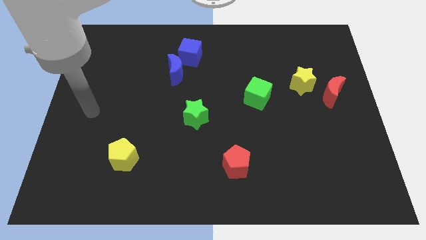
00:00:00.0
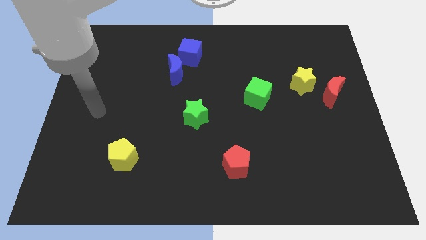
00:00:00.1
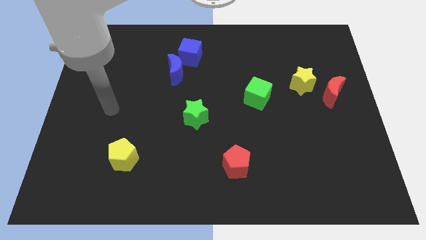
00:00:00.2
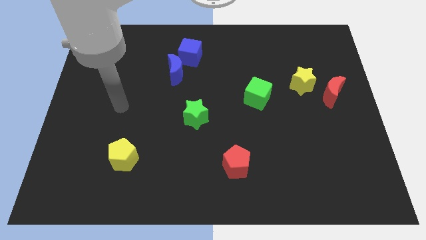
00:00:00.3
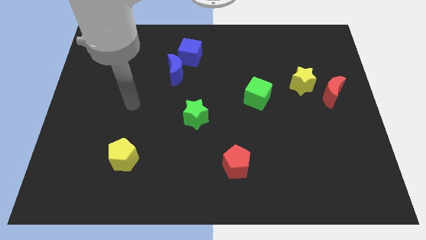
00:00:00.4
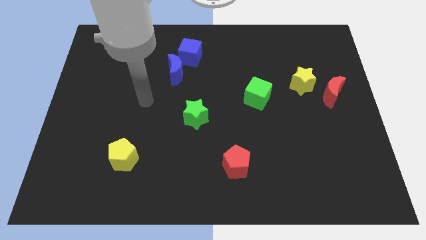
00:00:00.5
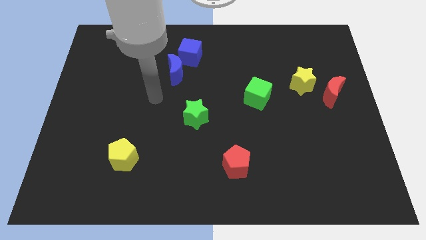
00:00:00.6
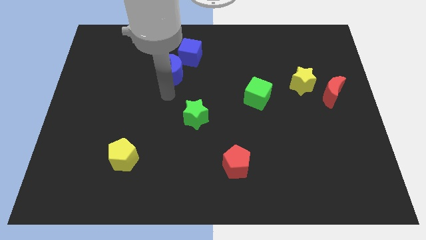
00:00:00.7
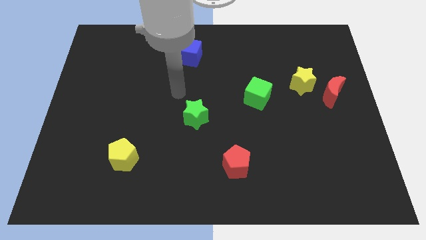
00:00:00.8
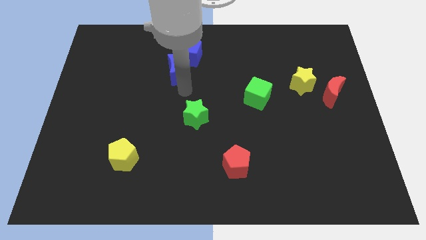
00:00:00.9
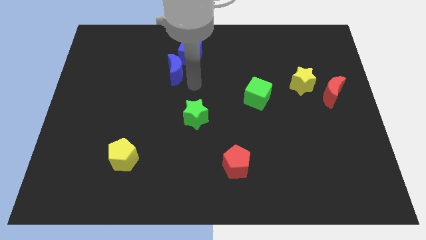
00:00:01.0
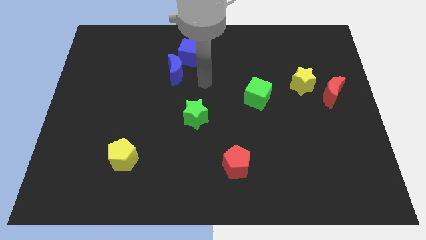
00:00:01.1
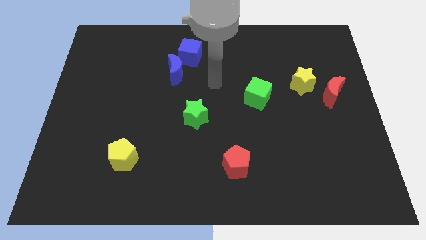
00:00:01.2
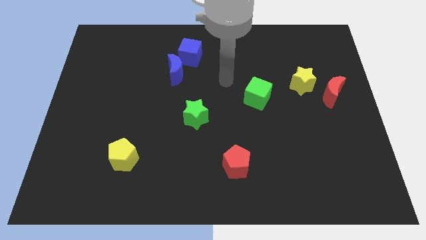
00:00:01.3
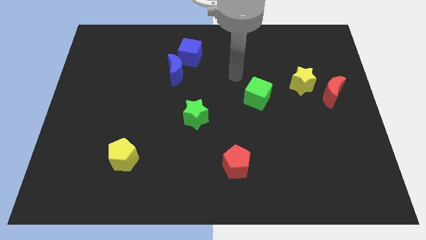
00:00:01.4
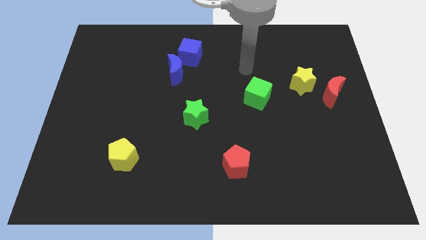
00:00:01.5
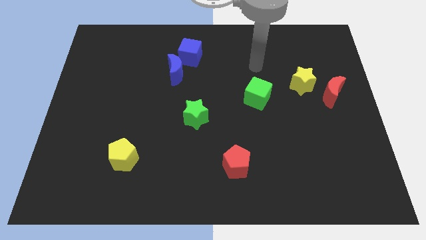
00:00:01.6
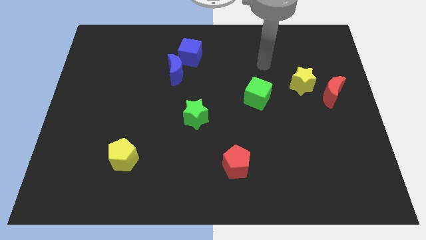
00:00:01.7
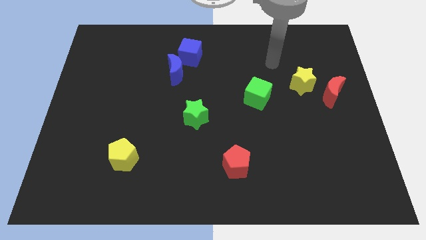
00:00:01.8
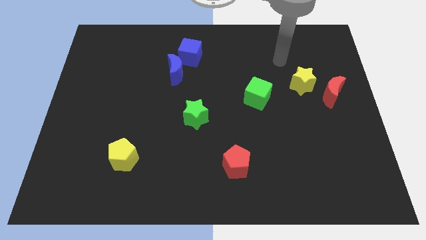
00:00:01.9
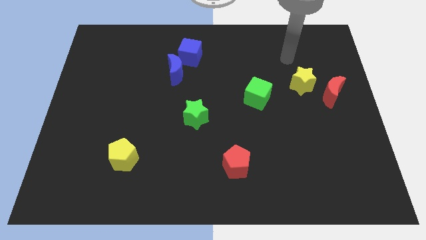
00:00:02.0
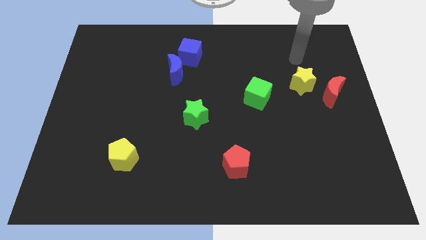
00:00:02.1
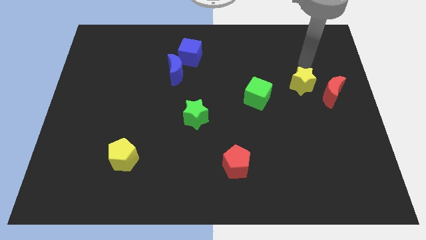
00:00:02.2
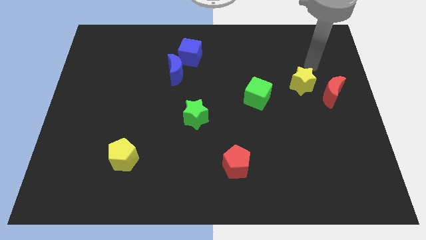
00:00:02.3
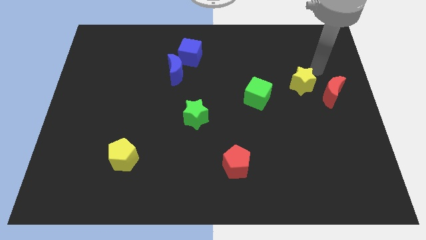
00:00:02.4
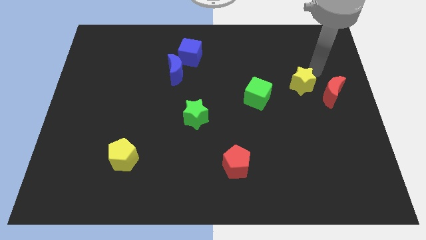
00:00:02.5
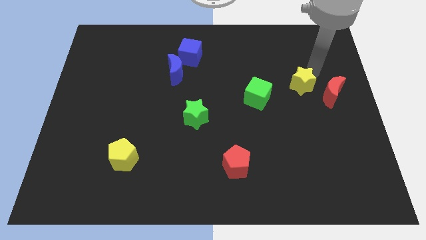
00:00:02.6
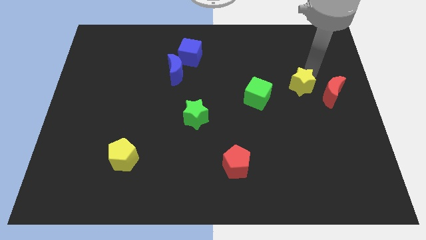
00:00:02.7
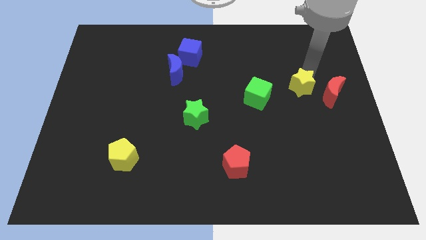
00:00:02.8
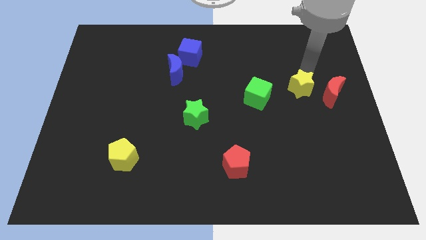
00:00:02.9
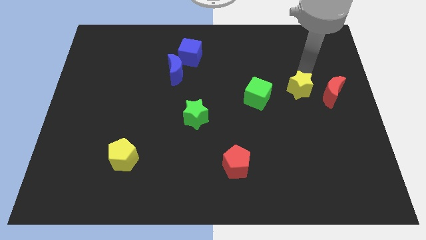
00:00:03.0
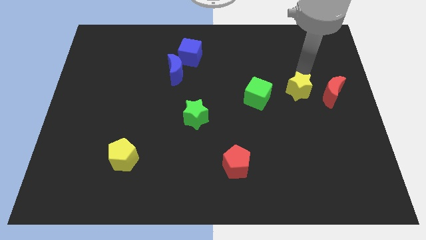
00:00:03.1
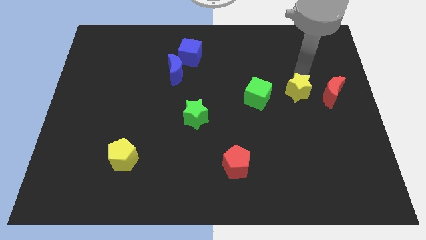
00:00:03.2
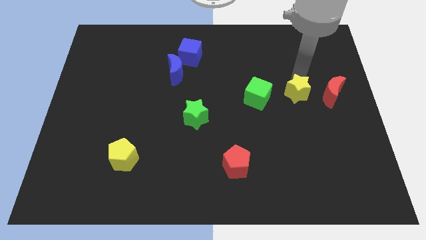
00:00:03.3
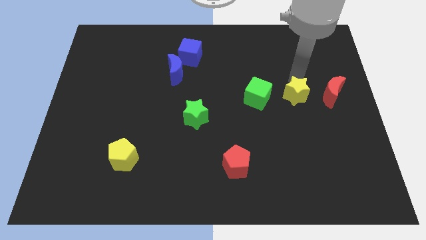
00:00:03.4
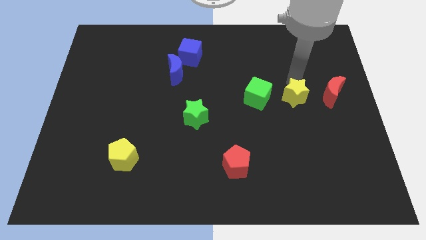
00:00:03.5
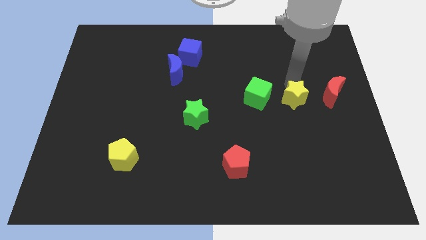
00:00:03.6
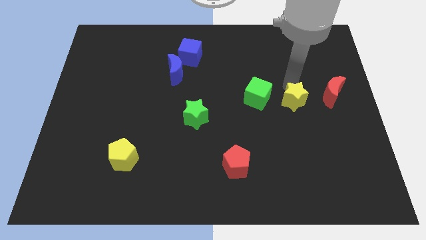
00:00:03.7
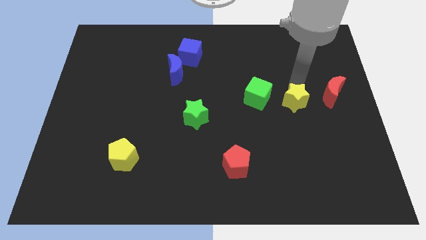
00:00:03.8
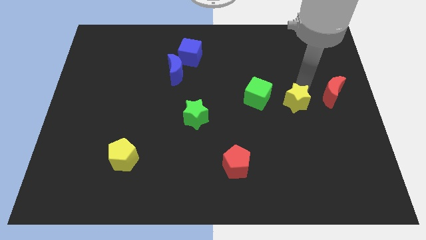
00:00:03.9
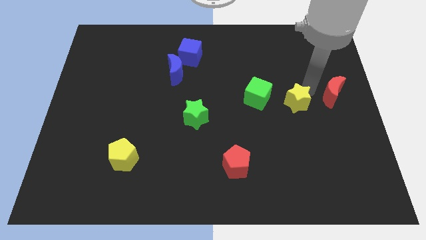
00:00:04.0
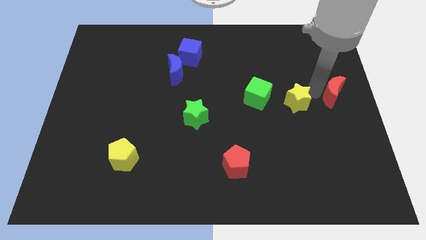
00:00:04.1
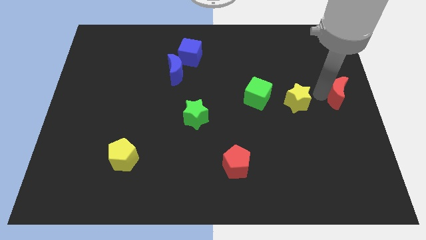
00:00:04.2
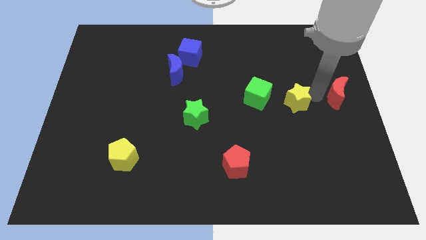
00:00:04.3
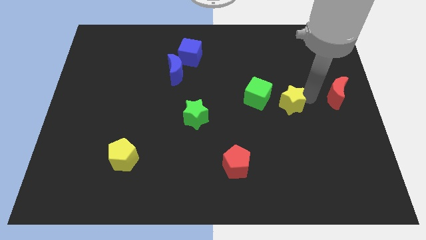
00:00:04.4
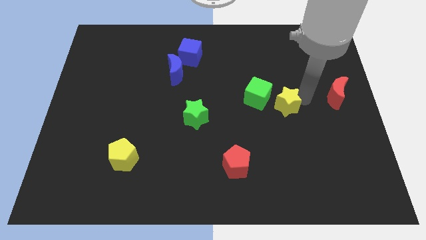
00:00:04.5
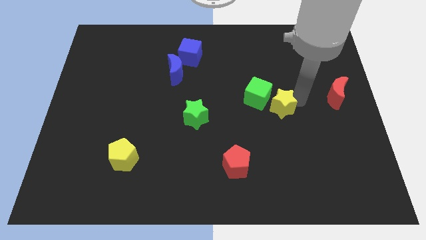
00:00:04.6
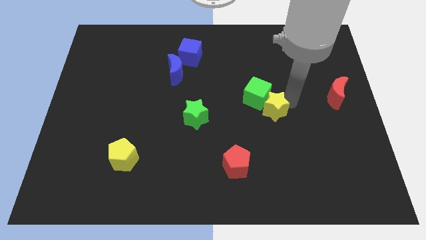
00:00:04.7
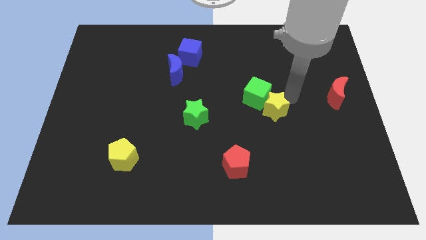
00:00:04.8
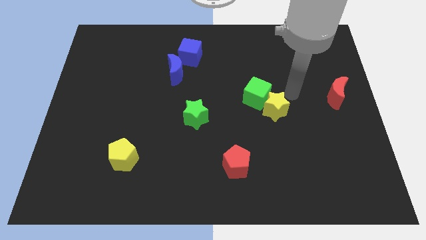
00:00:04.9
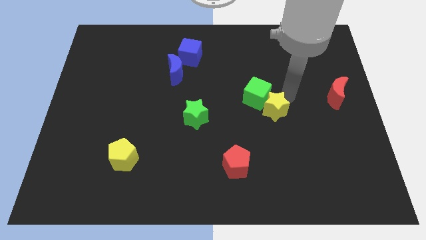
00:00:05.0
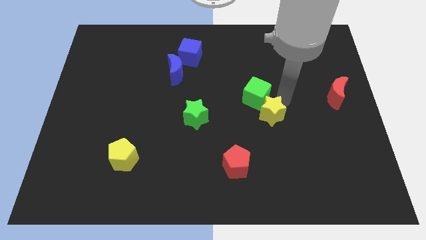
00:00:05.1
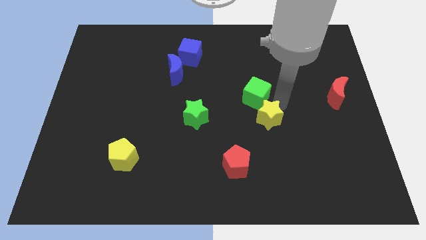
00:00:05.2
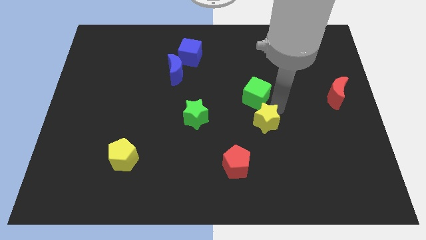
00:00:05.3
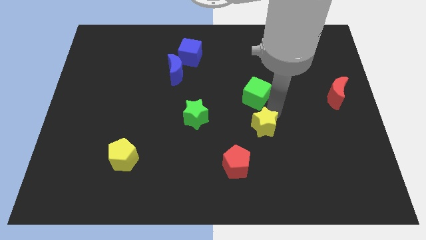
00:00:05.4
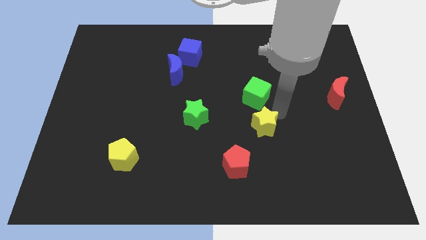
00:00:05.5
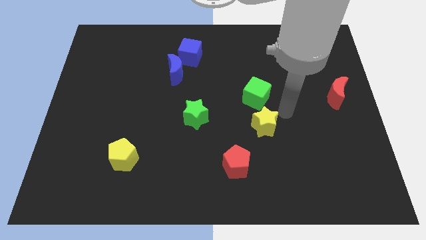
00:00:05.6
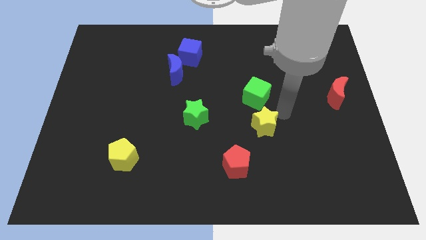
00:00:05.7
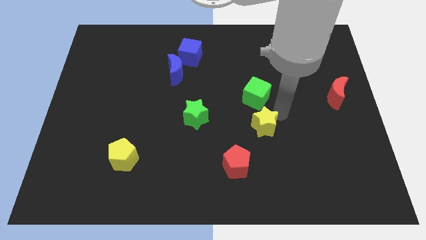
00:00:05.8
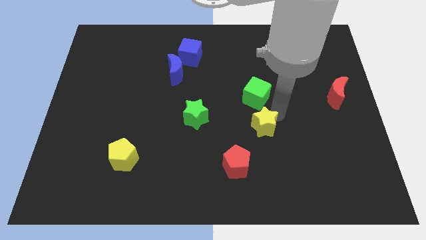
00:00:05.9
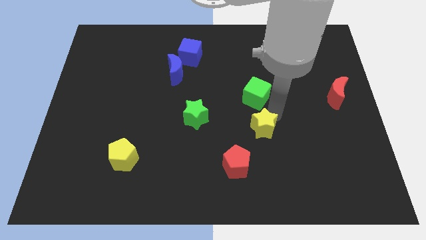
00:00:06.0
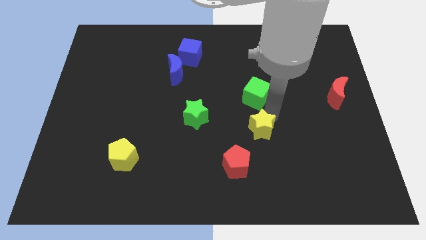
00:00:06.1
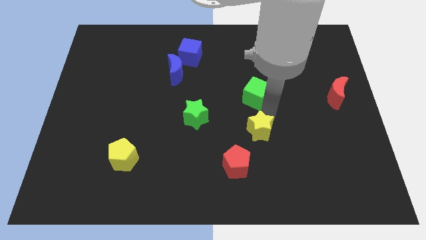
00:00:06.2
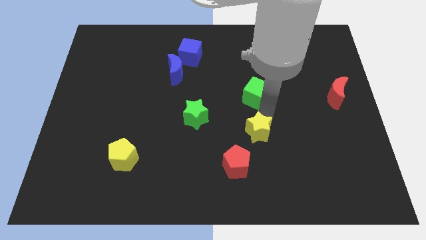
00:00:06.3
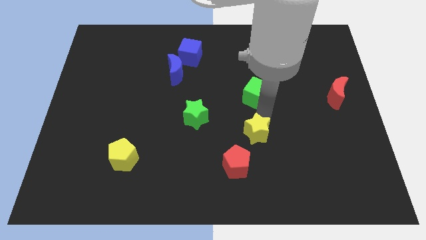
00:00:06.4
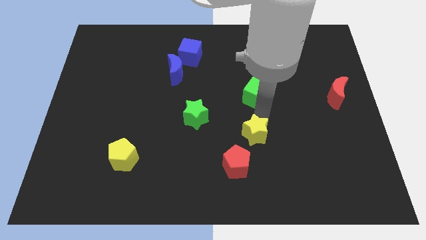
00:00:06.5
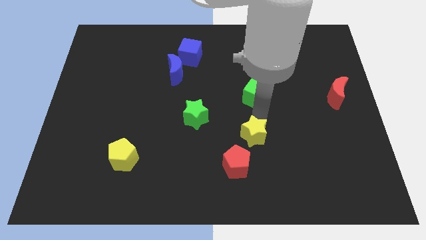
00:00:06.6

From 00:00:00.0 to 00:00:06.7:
push the yellow star downwards and to the left

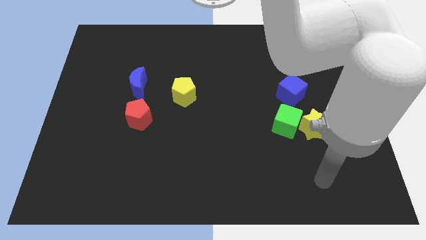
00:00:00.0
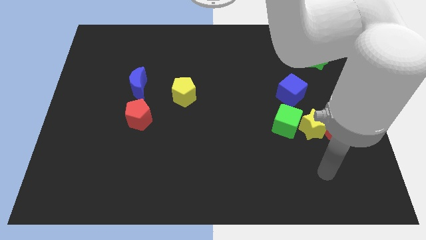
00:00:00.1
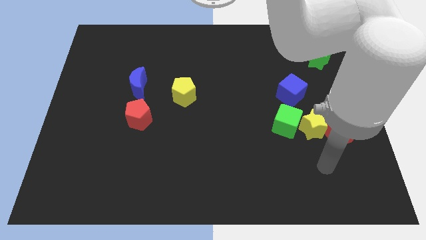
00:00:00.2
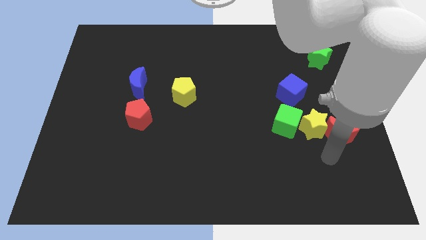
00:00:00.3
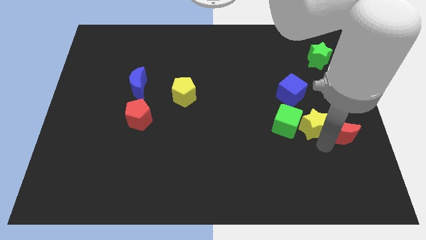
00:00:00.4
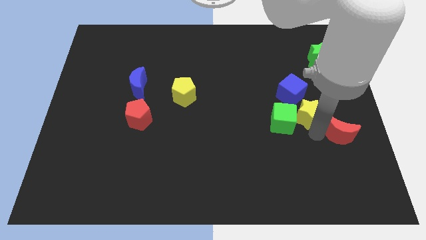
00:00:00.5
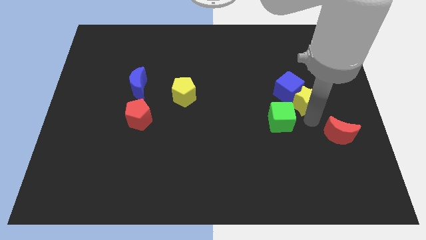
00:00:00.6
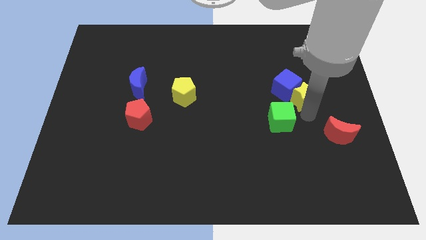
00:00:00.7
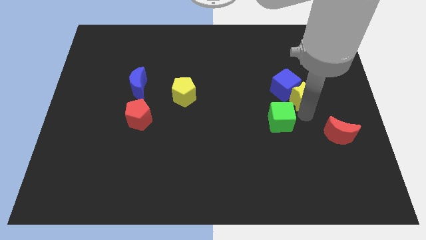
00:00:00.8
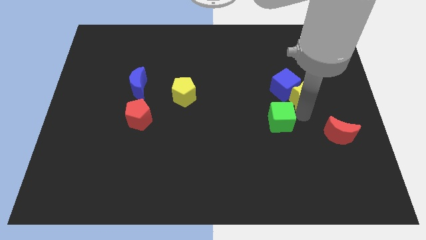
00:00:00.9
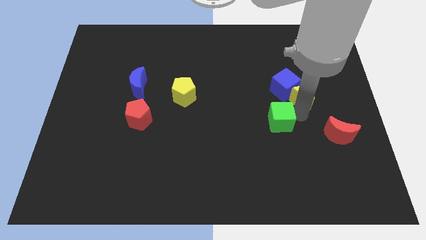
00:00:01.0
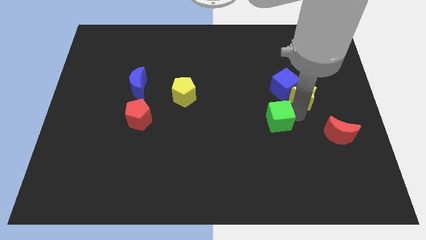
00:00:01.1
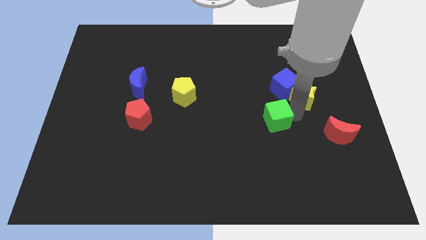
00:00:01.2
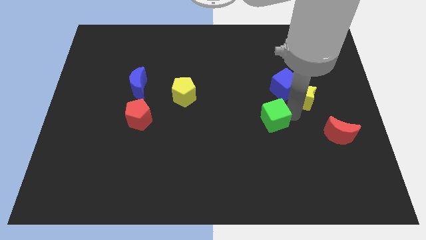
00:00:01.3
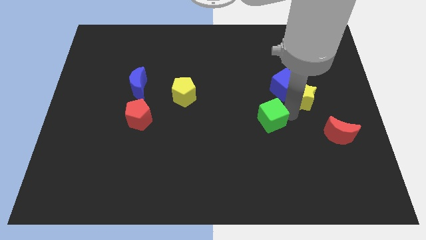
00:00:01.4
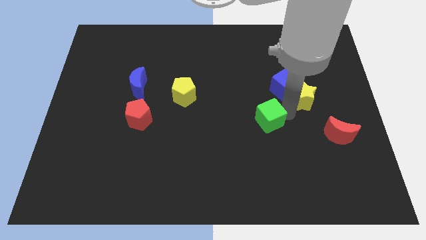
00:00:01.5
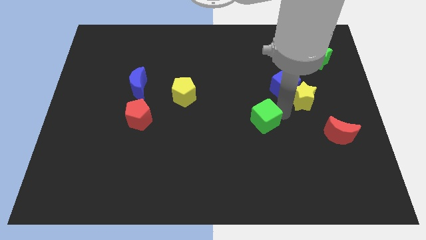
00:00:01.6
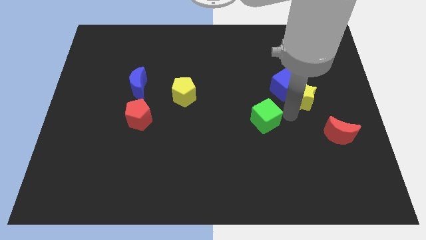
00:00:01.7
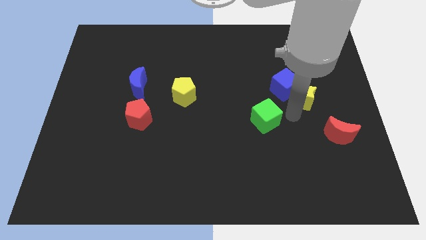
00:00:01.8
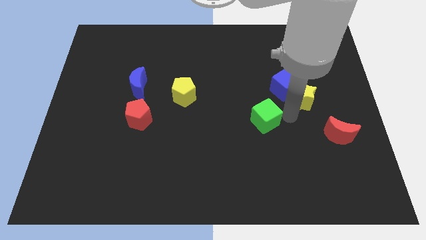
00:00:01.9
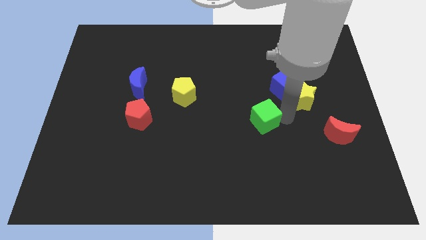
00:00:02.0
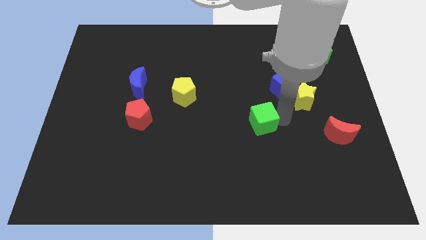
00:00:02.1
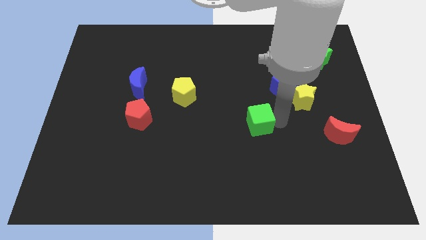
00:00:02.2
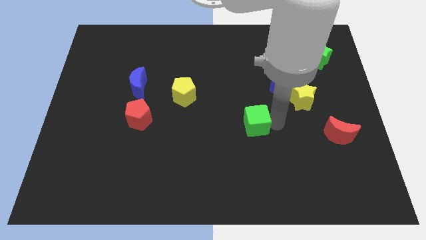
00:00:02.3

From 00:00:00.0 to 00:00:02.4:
slide the green cube somewhat left
